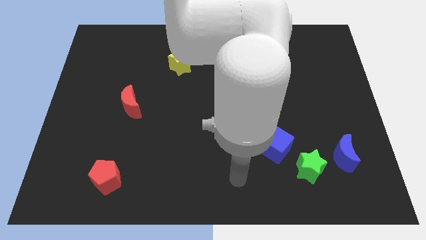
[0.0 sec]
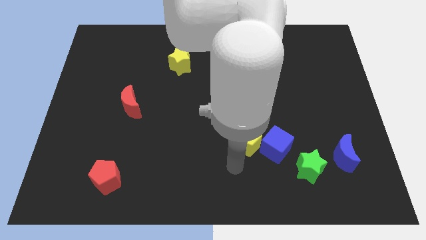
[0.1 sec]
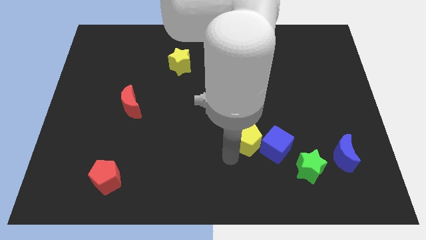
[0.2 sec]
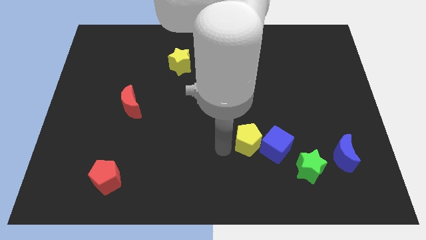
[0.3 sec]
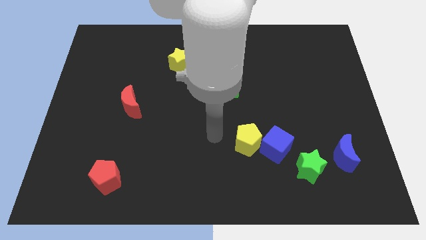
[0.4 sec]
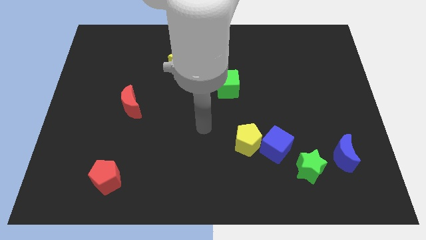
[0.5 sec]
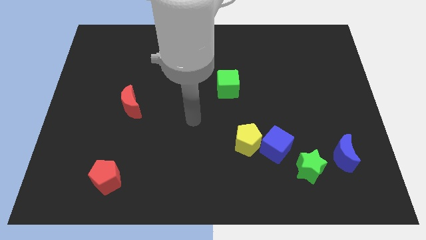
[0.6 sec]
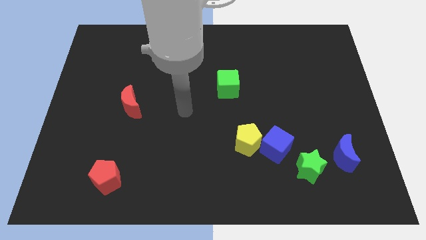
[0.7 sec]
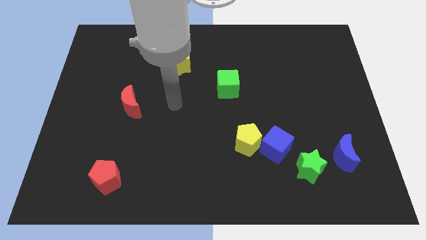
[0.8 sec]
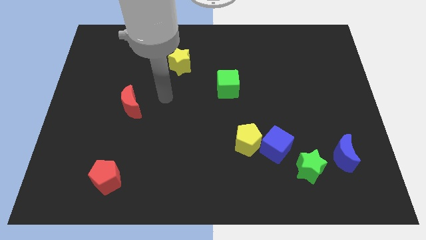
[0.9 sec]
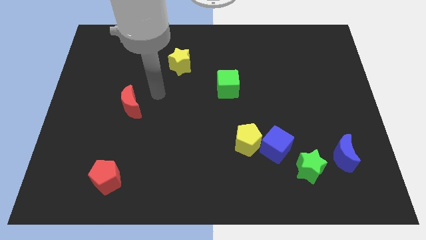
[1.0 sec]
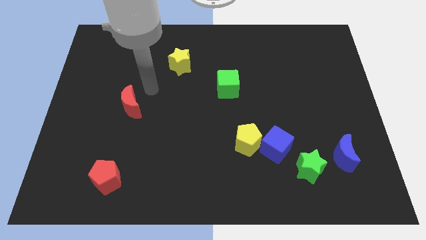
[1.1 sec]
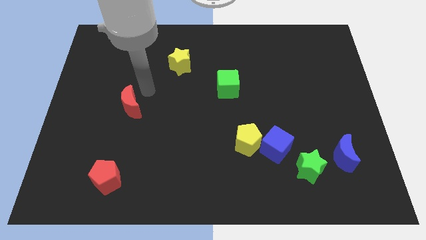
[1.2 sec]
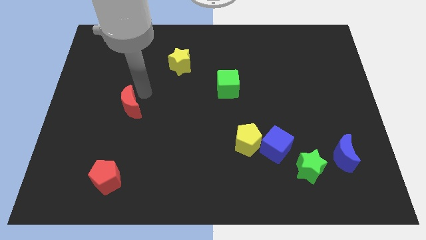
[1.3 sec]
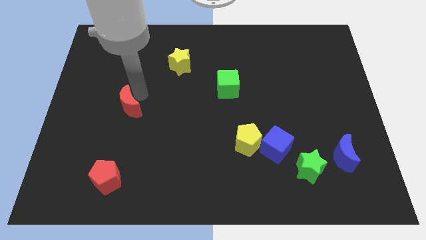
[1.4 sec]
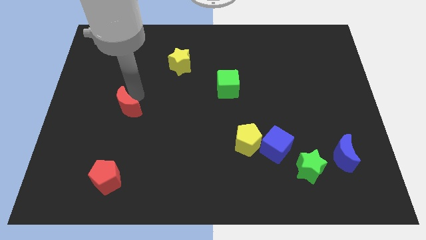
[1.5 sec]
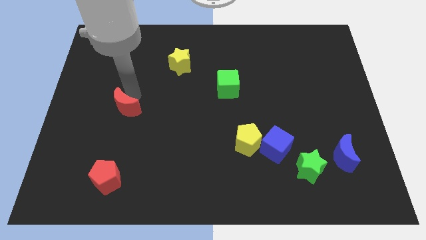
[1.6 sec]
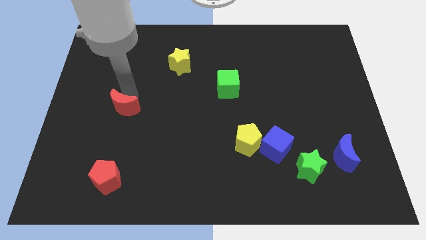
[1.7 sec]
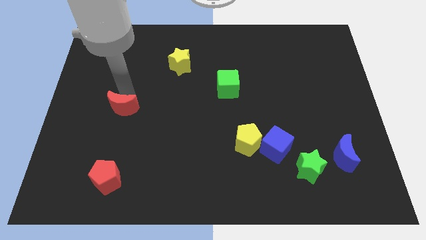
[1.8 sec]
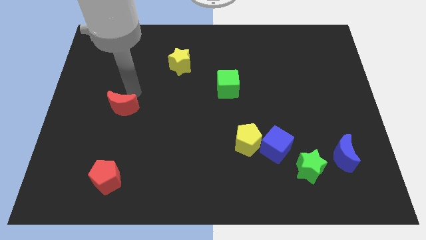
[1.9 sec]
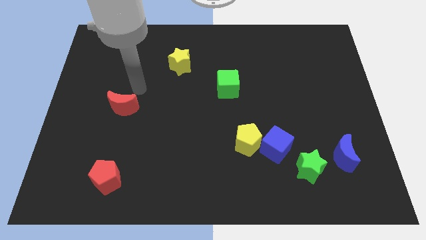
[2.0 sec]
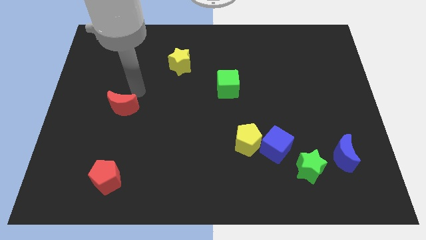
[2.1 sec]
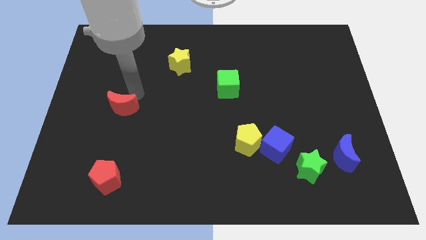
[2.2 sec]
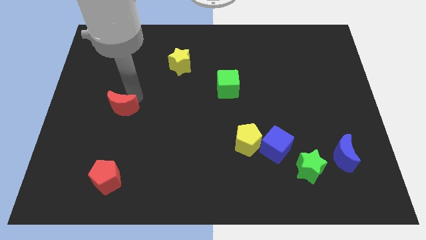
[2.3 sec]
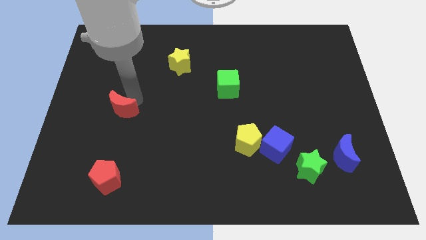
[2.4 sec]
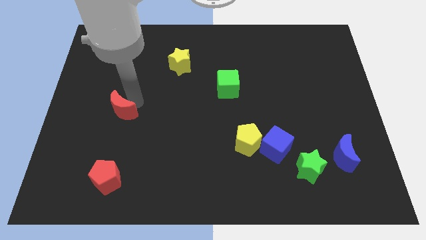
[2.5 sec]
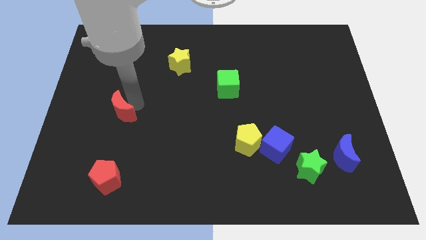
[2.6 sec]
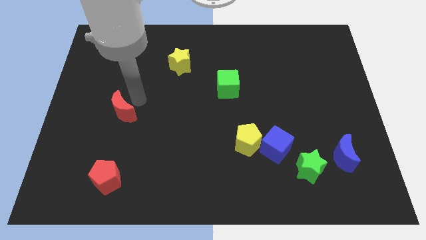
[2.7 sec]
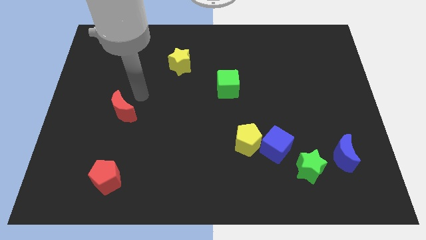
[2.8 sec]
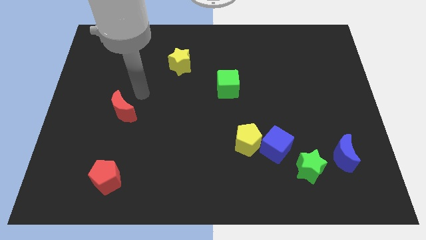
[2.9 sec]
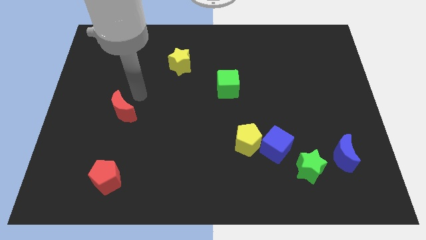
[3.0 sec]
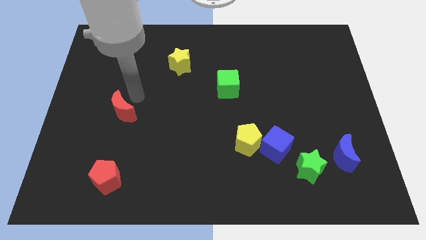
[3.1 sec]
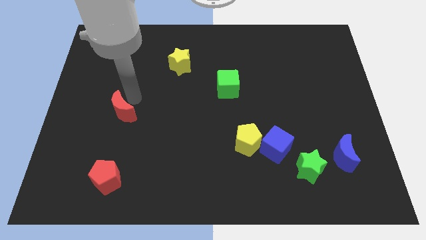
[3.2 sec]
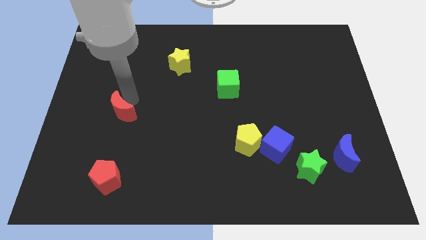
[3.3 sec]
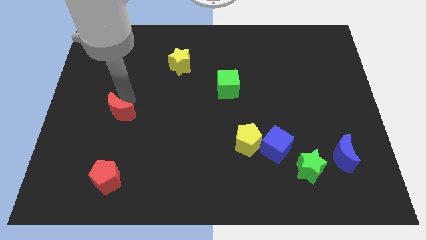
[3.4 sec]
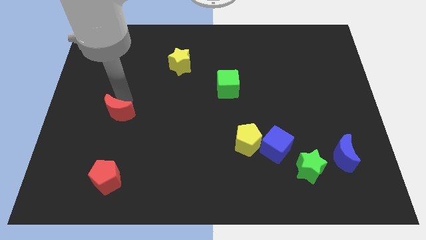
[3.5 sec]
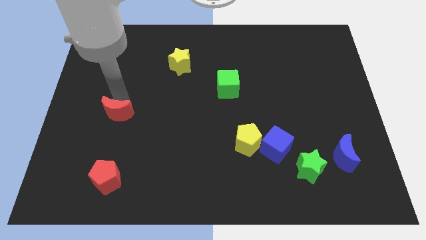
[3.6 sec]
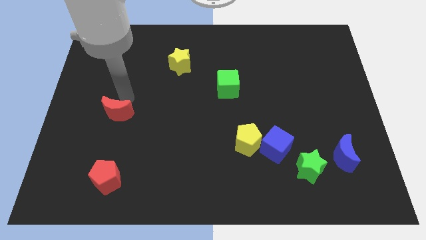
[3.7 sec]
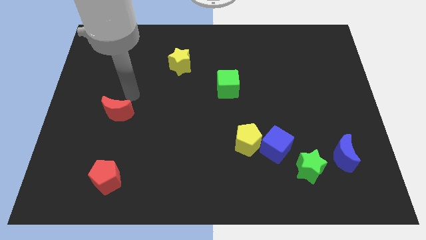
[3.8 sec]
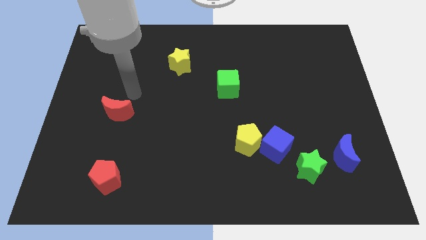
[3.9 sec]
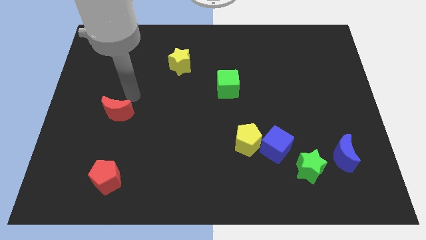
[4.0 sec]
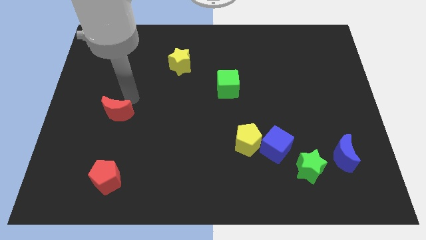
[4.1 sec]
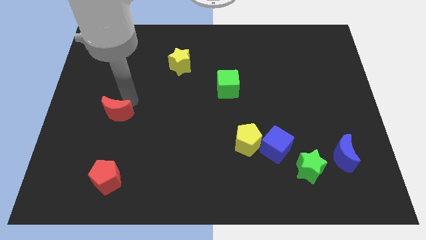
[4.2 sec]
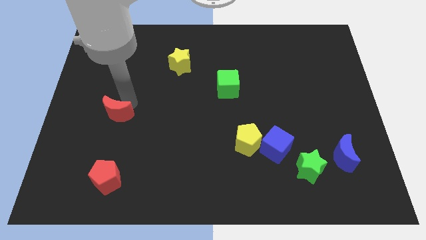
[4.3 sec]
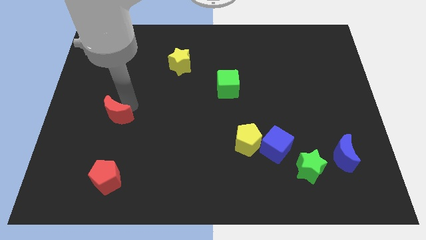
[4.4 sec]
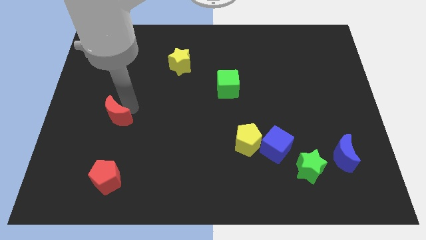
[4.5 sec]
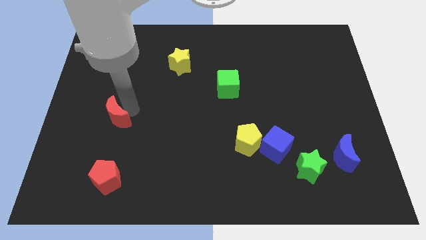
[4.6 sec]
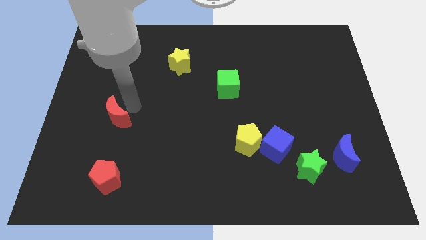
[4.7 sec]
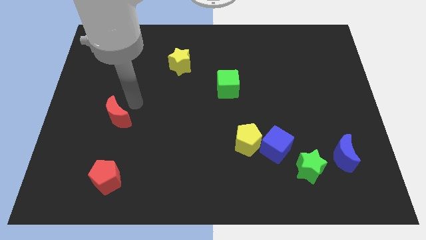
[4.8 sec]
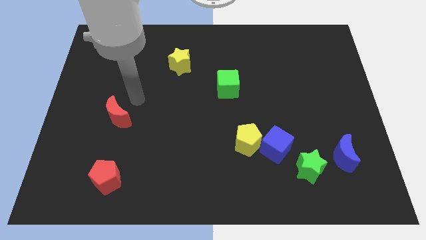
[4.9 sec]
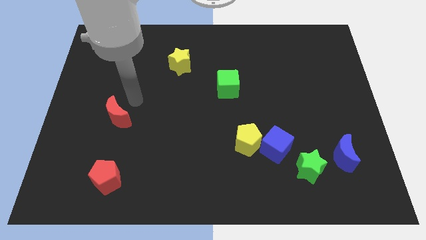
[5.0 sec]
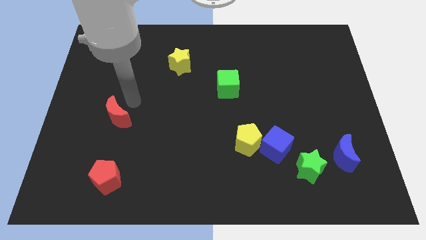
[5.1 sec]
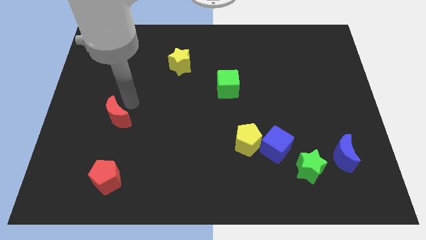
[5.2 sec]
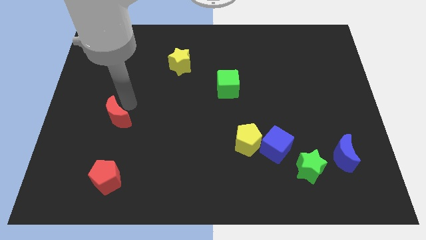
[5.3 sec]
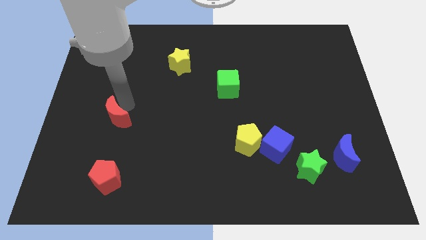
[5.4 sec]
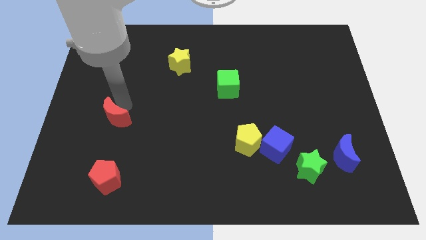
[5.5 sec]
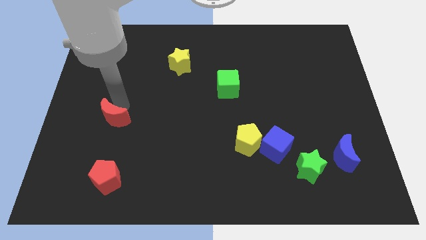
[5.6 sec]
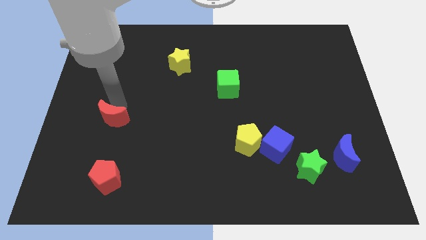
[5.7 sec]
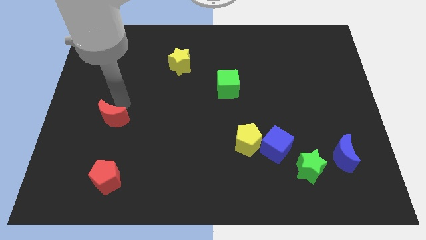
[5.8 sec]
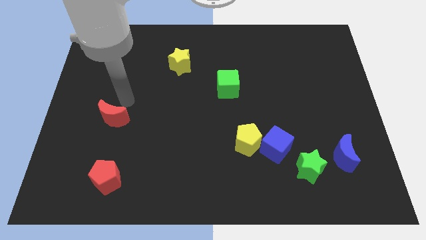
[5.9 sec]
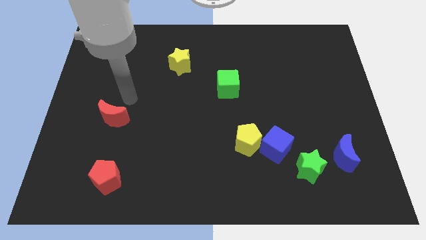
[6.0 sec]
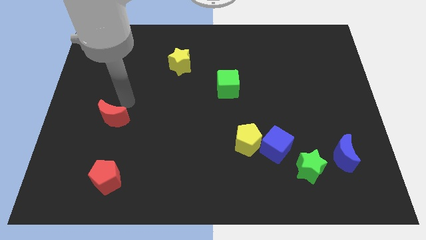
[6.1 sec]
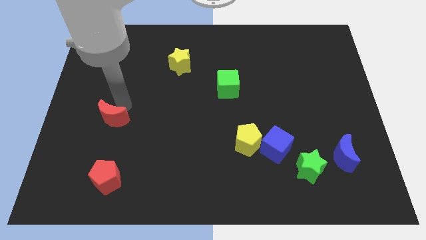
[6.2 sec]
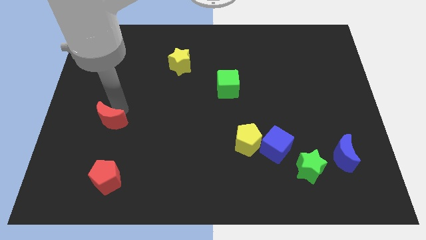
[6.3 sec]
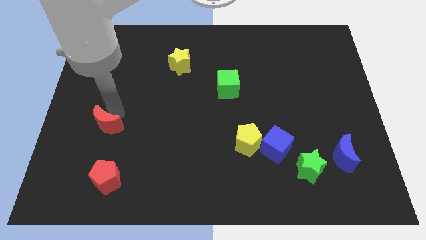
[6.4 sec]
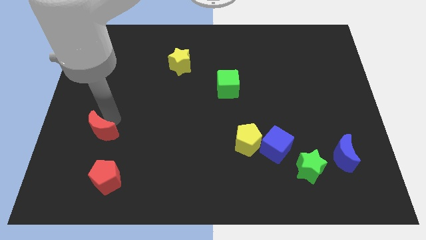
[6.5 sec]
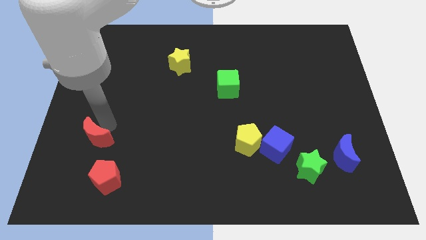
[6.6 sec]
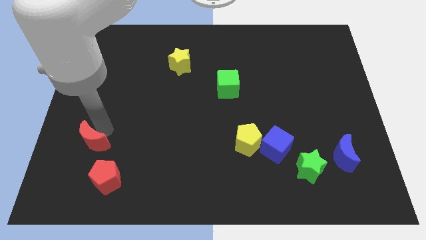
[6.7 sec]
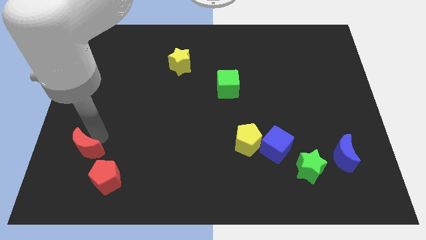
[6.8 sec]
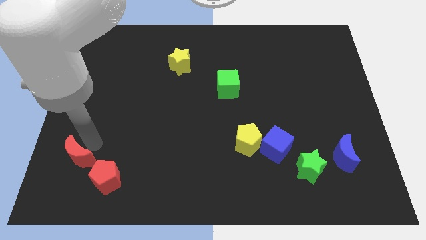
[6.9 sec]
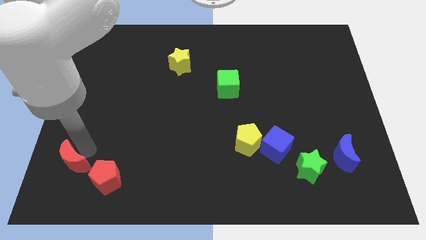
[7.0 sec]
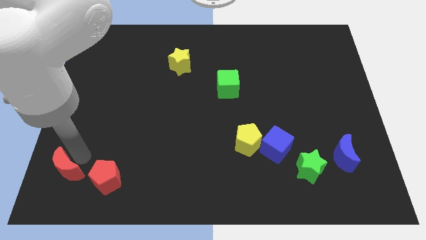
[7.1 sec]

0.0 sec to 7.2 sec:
move the red moon to the lower left corner

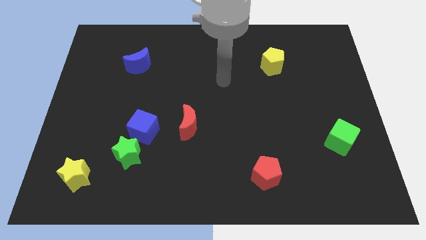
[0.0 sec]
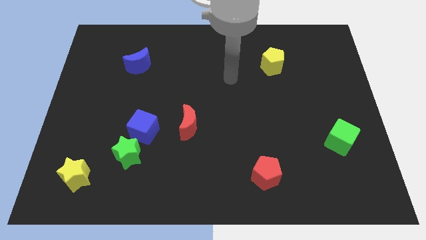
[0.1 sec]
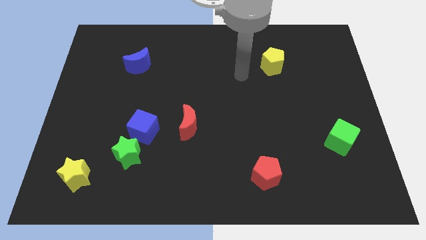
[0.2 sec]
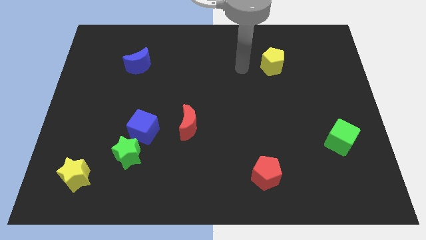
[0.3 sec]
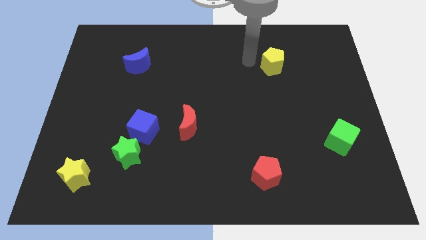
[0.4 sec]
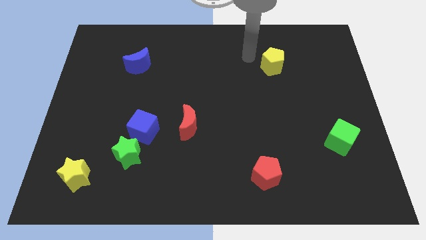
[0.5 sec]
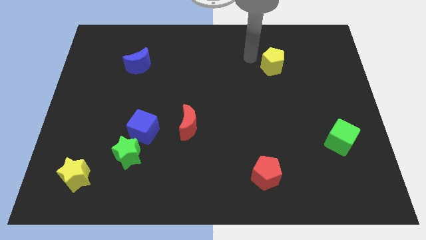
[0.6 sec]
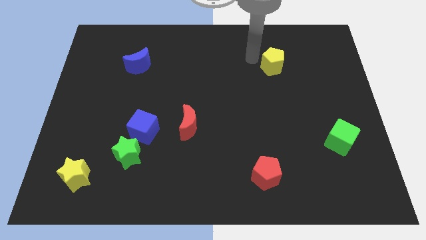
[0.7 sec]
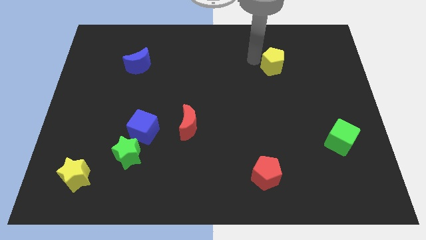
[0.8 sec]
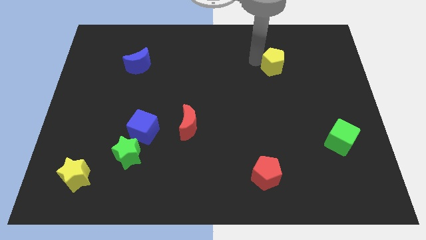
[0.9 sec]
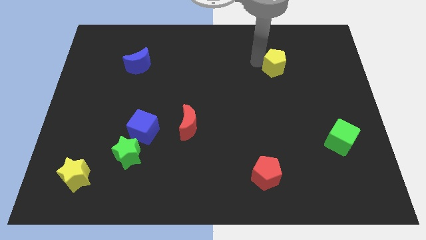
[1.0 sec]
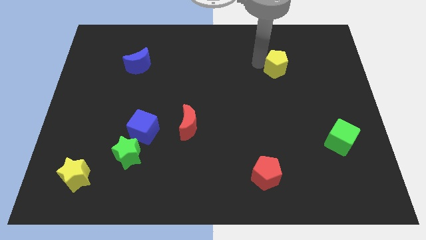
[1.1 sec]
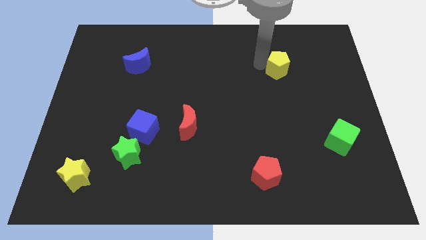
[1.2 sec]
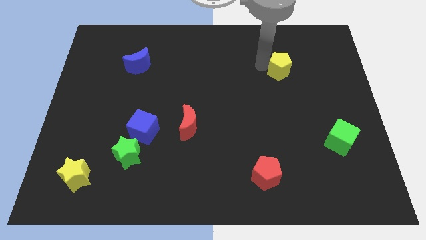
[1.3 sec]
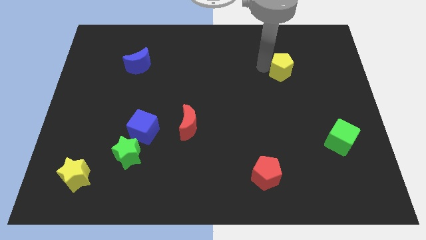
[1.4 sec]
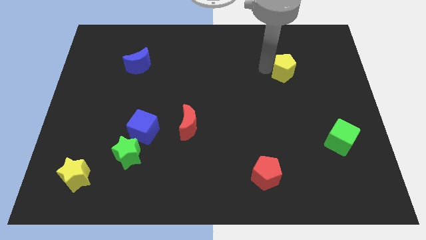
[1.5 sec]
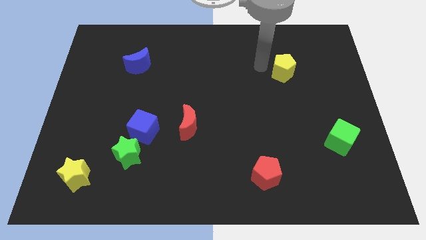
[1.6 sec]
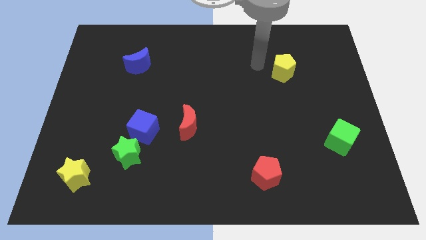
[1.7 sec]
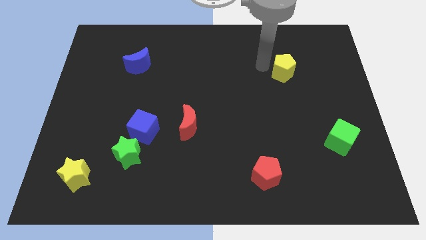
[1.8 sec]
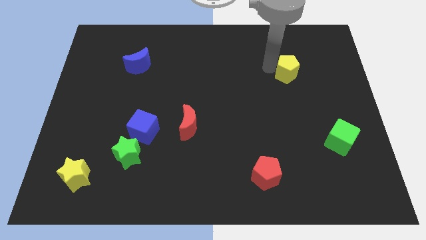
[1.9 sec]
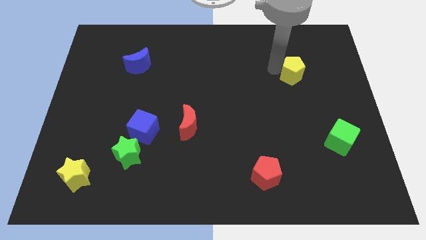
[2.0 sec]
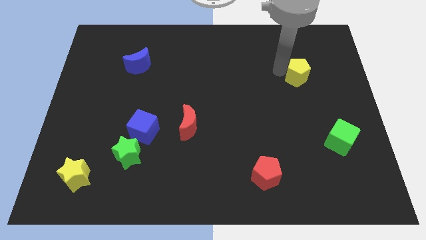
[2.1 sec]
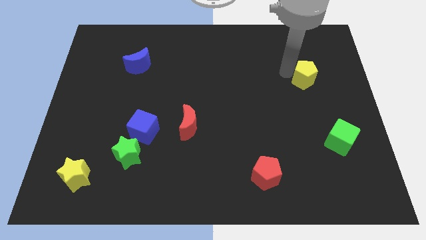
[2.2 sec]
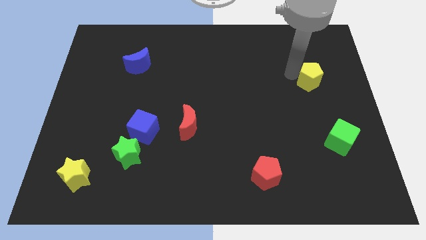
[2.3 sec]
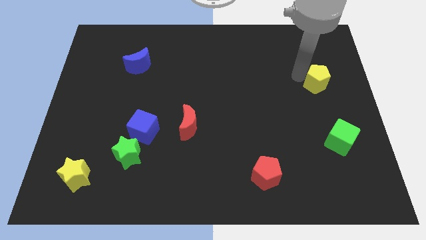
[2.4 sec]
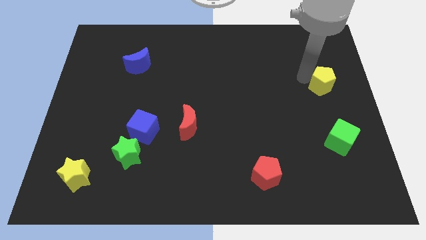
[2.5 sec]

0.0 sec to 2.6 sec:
put the yellow pentagon to the right side
